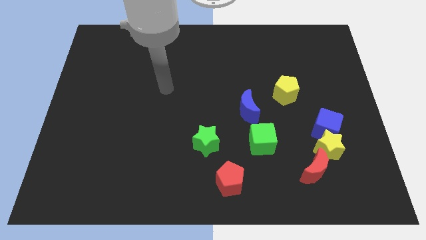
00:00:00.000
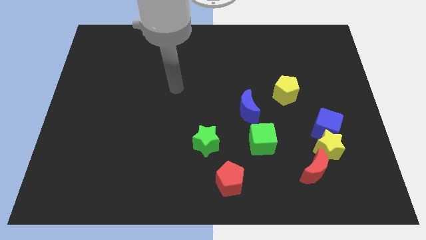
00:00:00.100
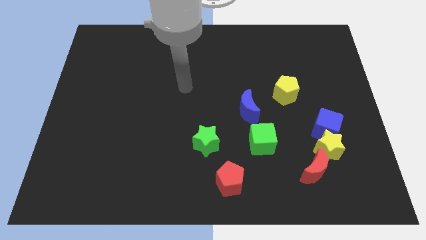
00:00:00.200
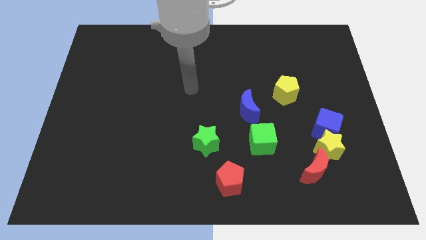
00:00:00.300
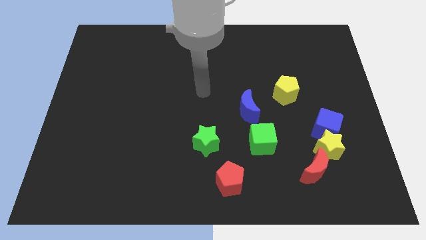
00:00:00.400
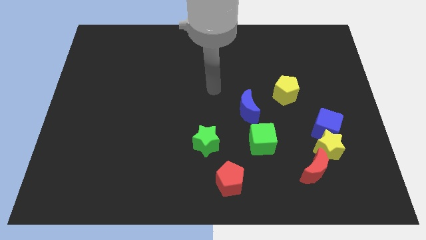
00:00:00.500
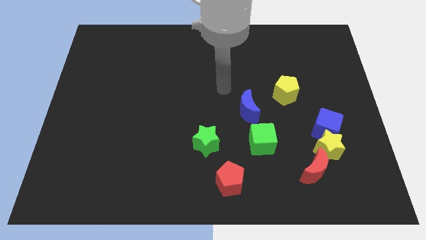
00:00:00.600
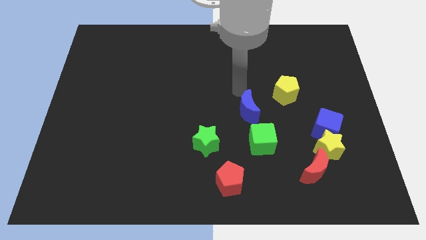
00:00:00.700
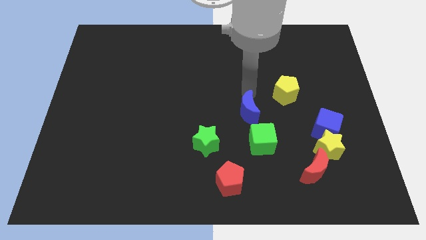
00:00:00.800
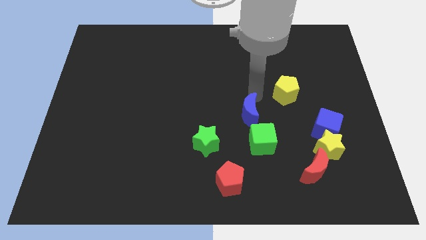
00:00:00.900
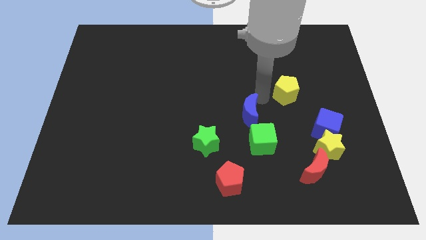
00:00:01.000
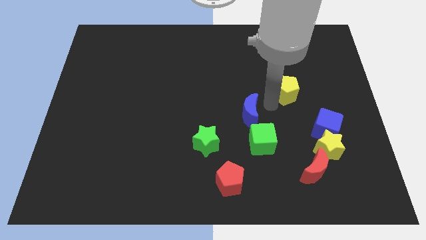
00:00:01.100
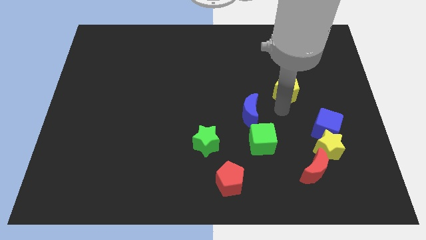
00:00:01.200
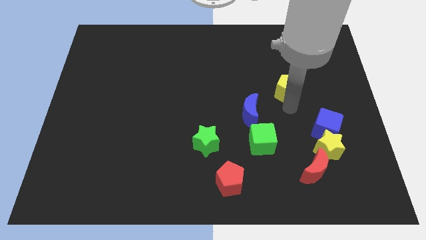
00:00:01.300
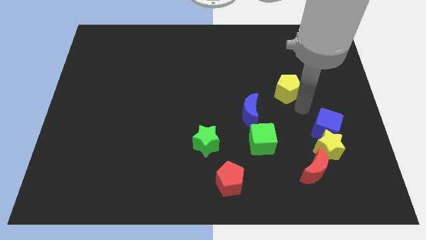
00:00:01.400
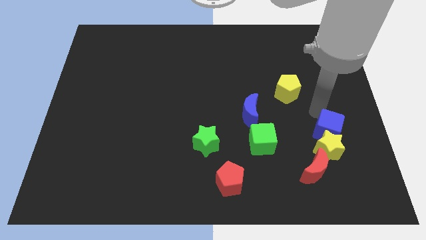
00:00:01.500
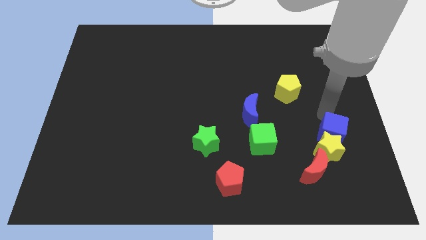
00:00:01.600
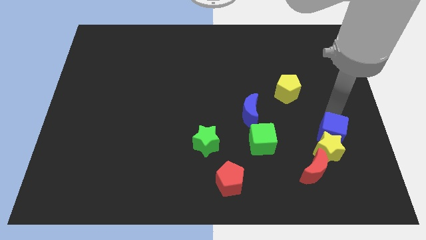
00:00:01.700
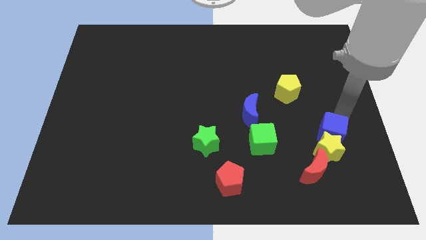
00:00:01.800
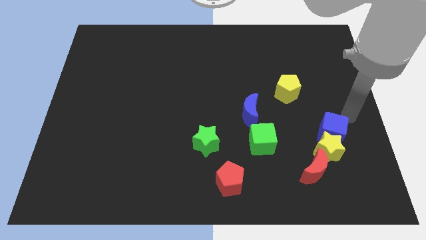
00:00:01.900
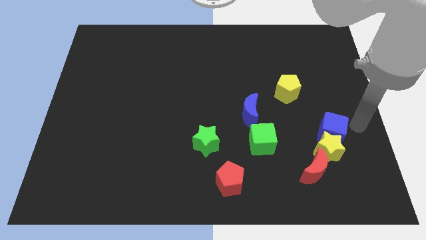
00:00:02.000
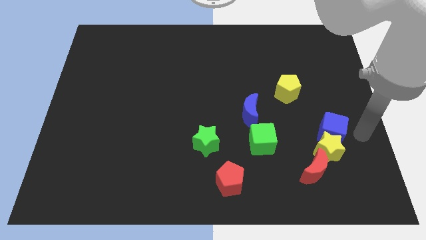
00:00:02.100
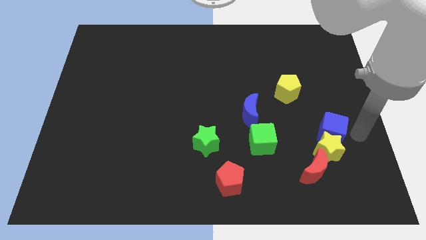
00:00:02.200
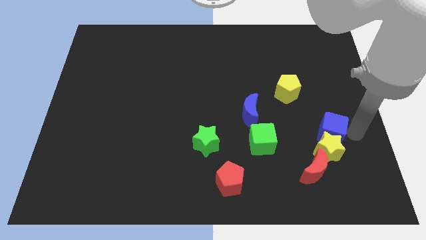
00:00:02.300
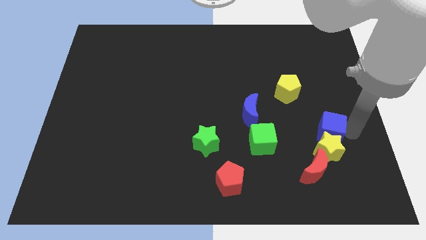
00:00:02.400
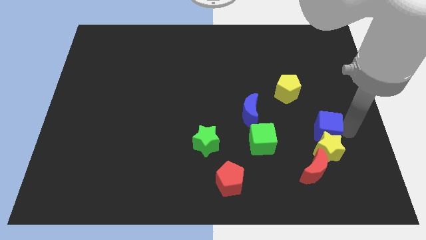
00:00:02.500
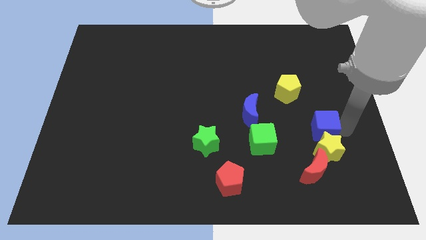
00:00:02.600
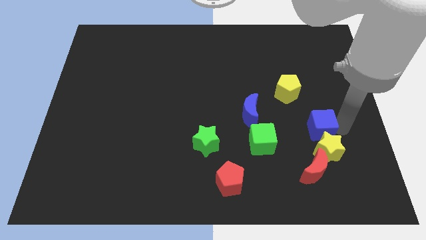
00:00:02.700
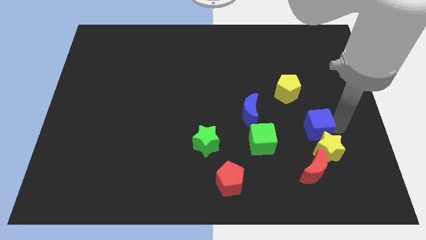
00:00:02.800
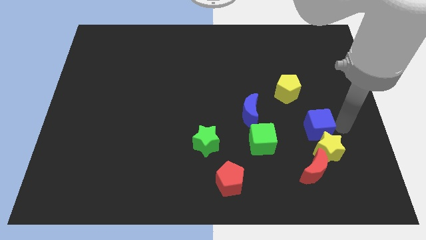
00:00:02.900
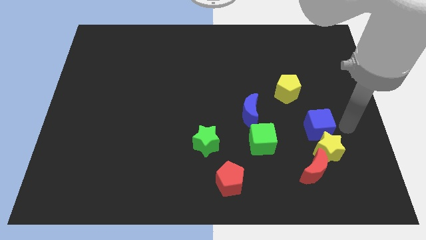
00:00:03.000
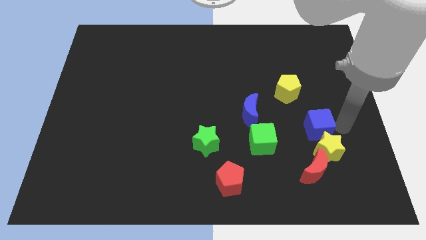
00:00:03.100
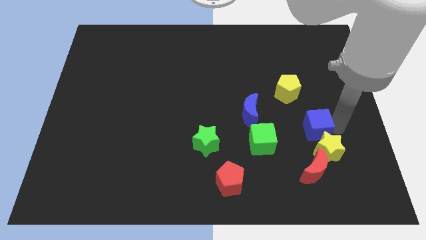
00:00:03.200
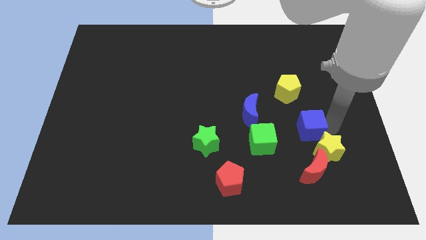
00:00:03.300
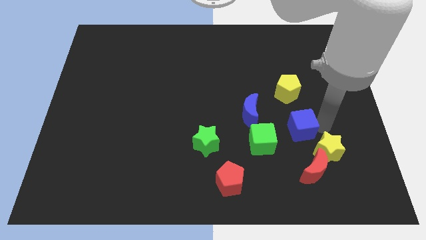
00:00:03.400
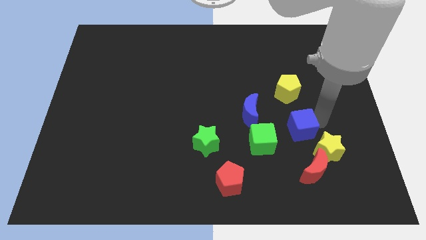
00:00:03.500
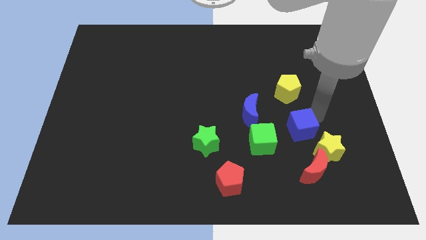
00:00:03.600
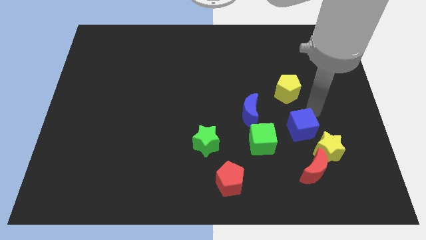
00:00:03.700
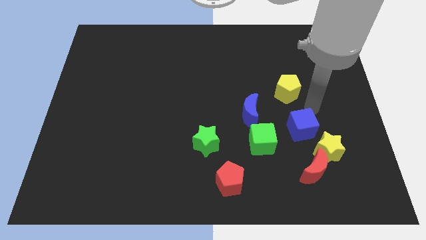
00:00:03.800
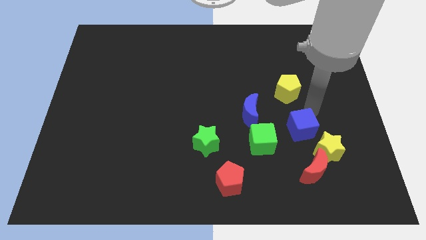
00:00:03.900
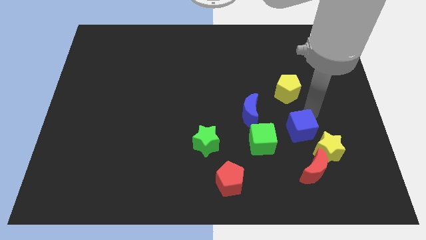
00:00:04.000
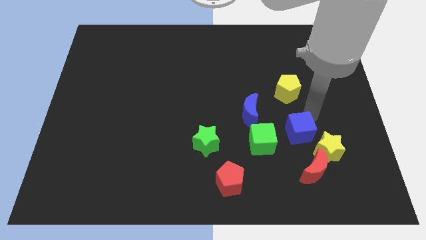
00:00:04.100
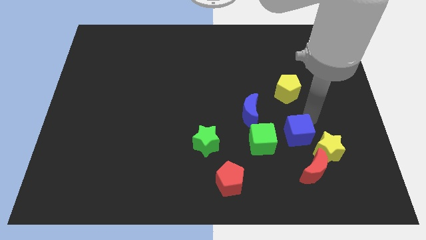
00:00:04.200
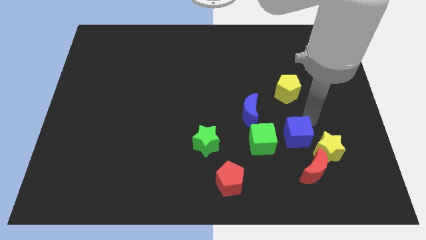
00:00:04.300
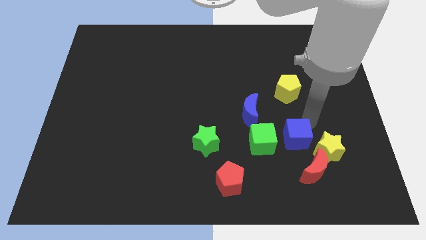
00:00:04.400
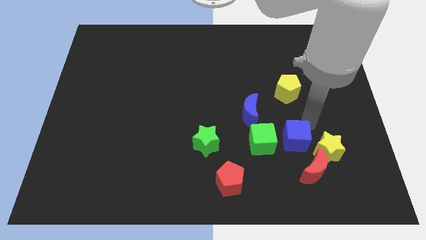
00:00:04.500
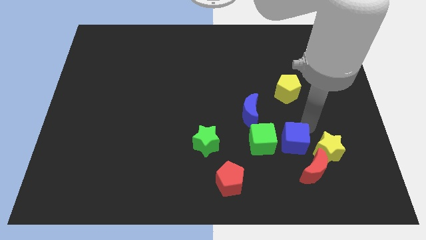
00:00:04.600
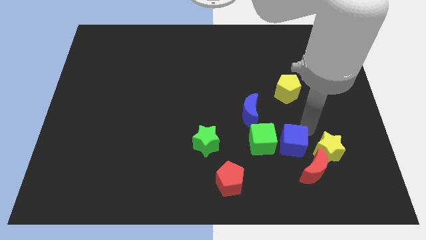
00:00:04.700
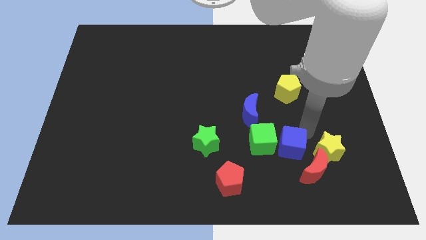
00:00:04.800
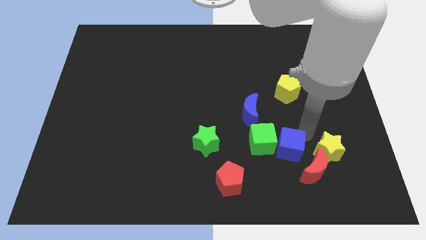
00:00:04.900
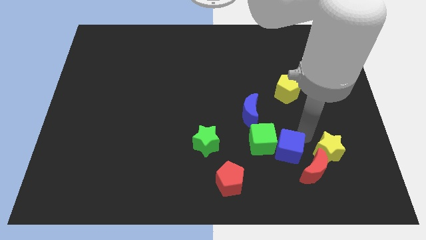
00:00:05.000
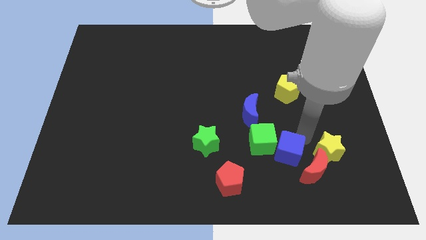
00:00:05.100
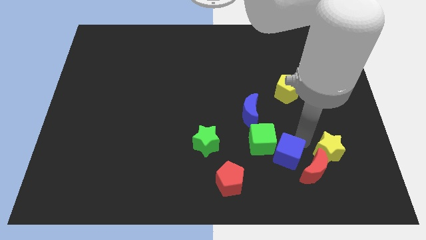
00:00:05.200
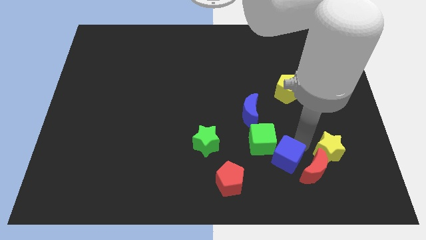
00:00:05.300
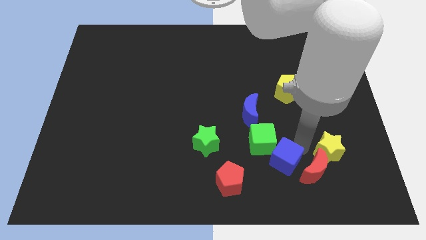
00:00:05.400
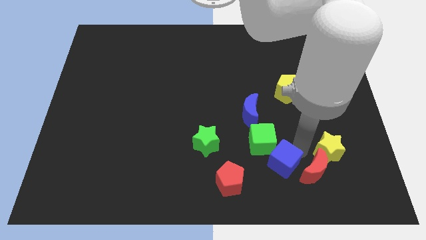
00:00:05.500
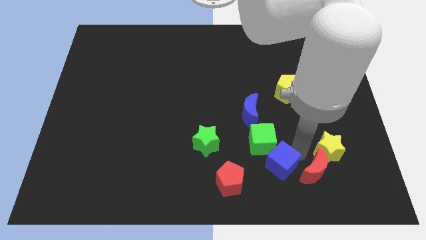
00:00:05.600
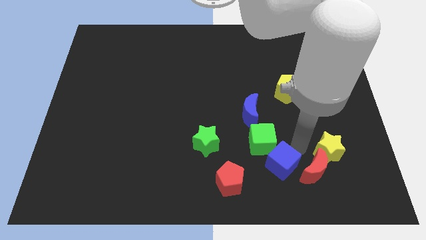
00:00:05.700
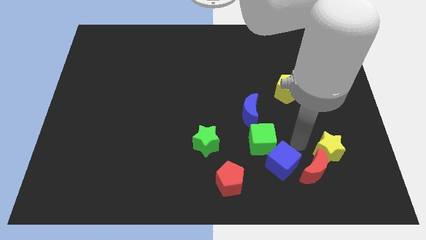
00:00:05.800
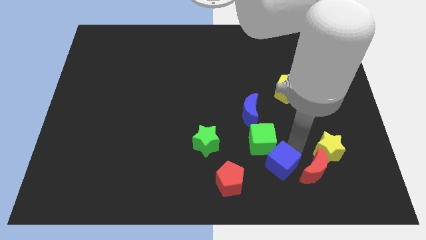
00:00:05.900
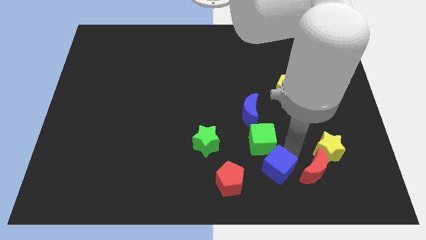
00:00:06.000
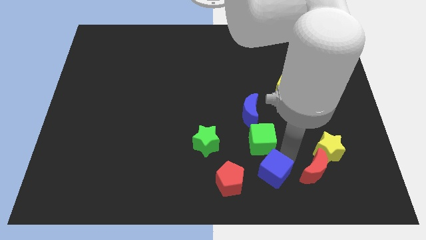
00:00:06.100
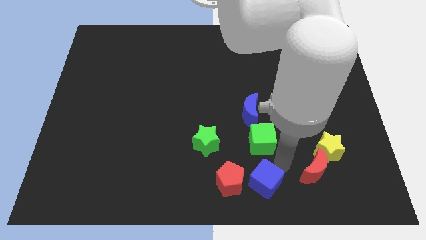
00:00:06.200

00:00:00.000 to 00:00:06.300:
slide the blue cube to the bottom side
